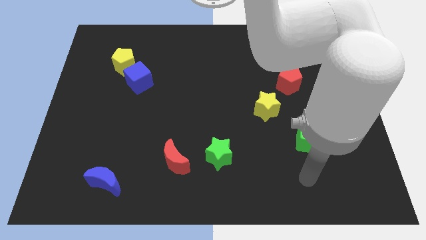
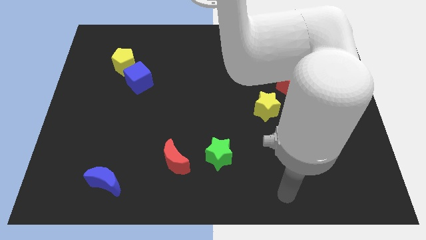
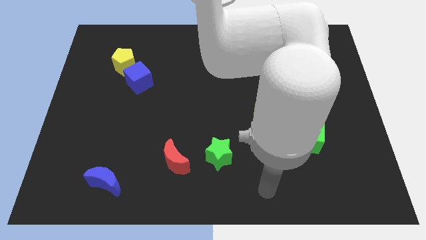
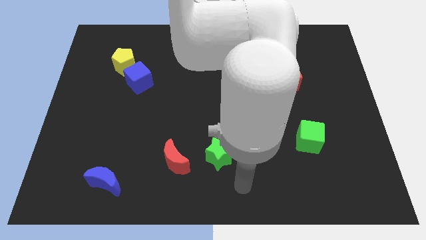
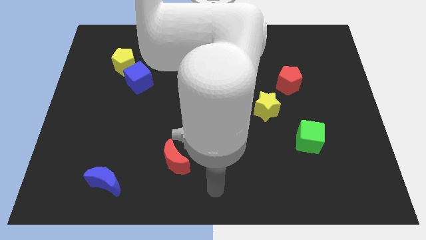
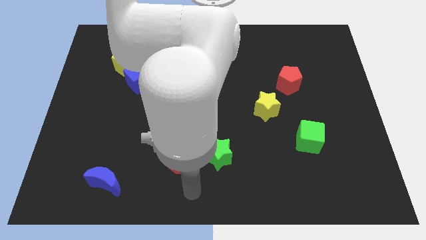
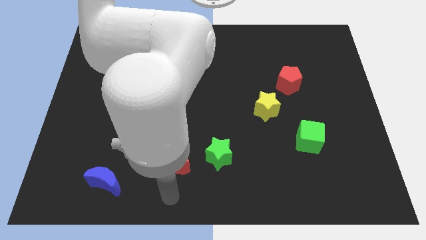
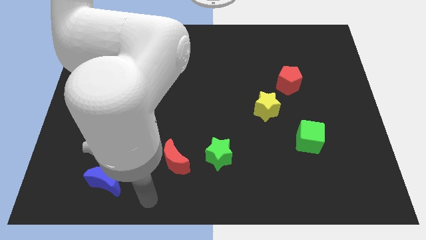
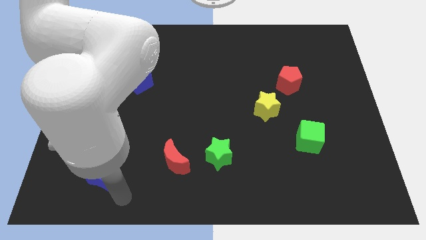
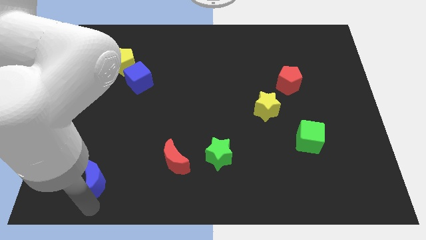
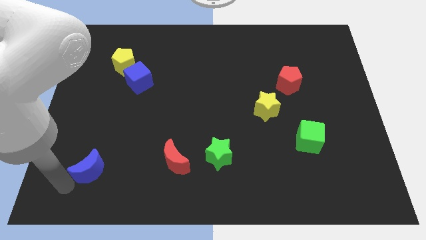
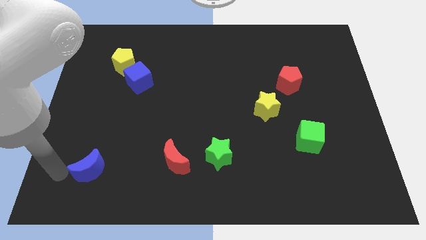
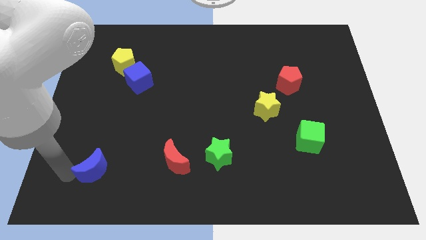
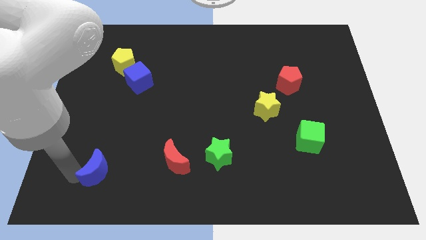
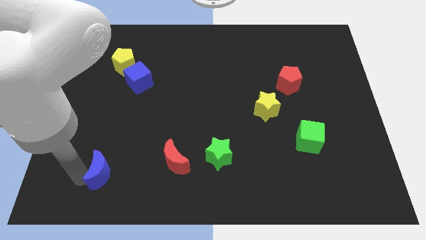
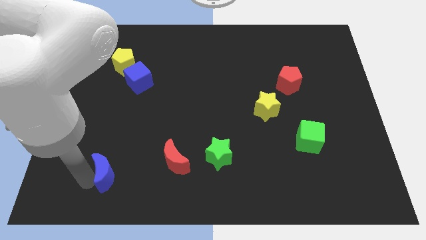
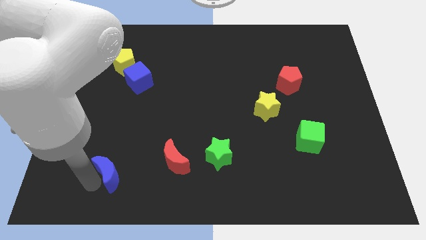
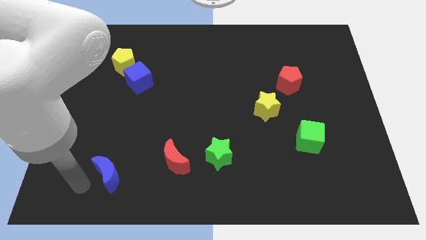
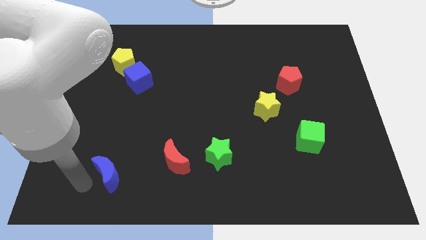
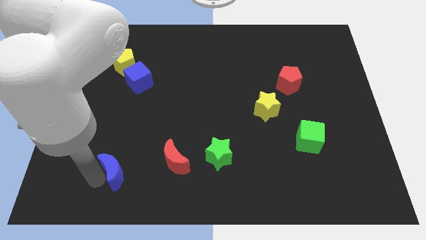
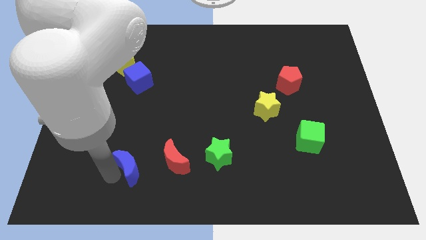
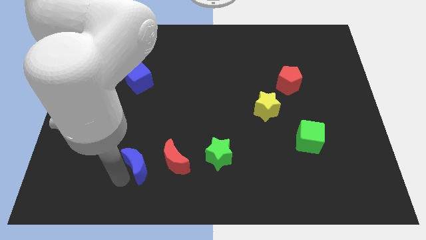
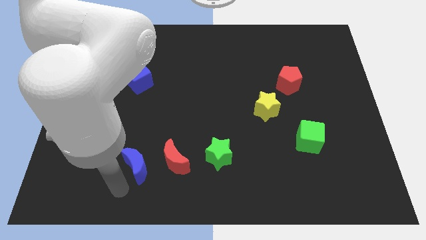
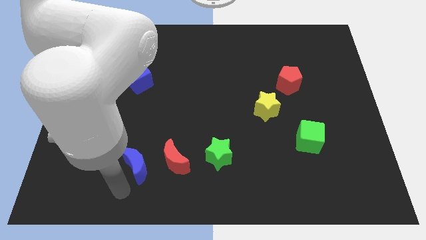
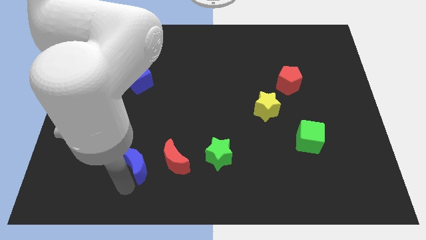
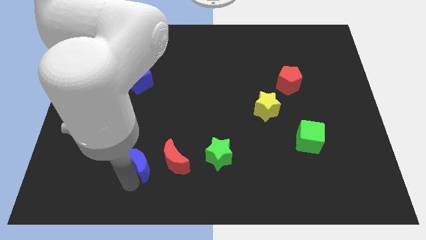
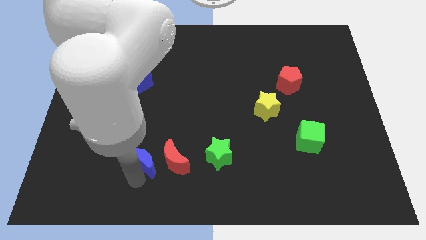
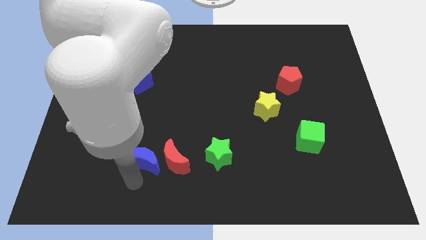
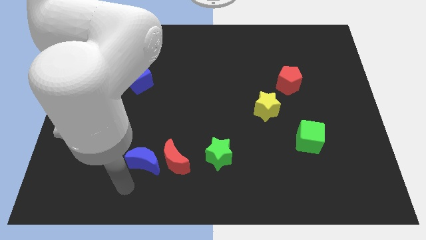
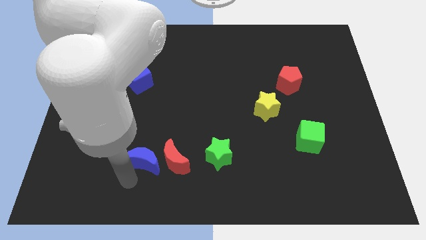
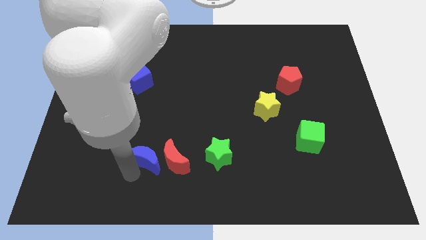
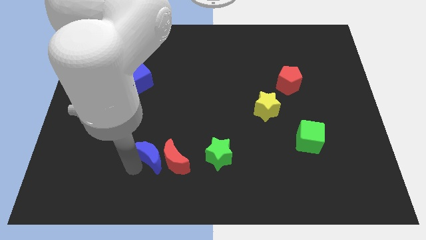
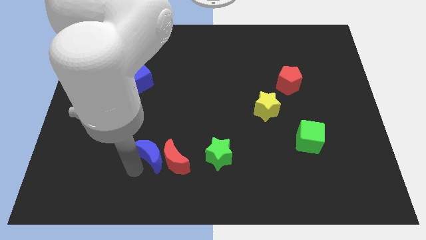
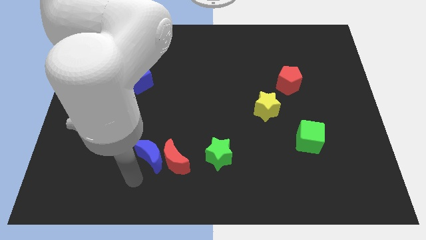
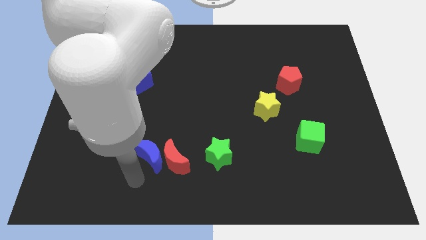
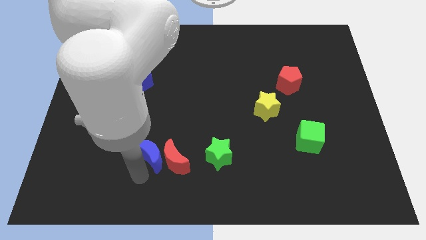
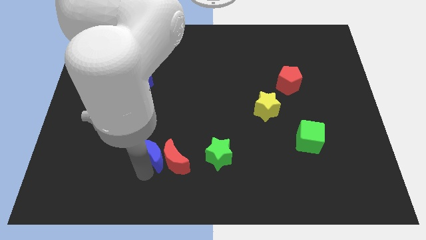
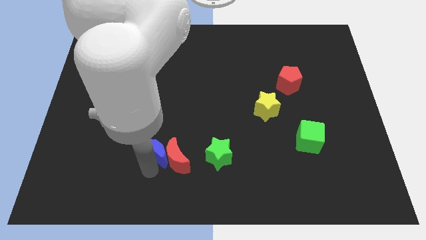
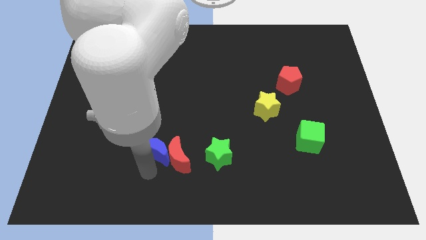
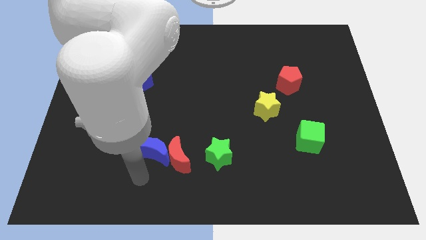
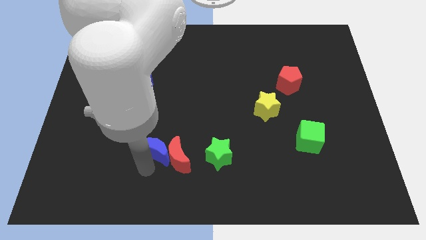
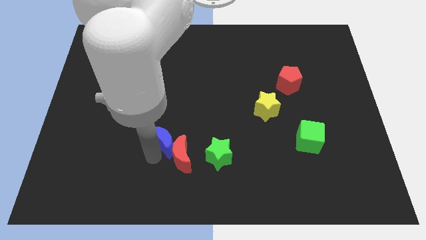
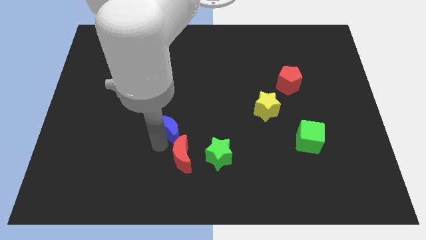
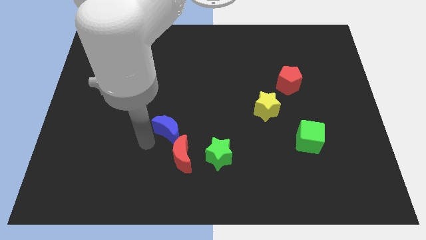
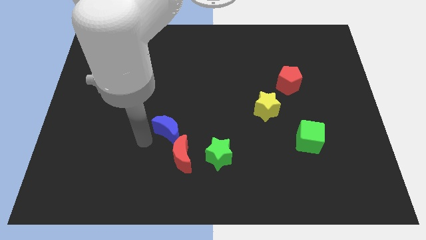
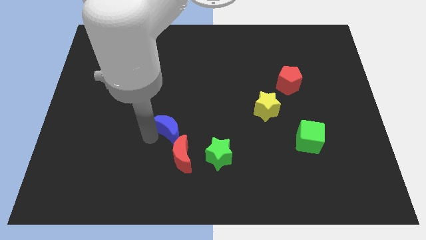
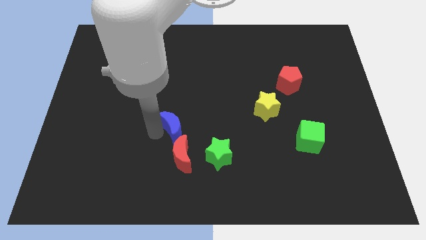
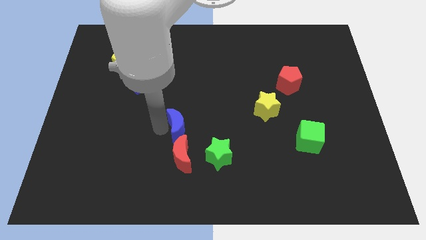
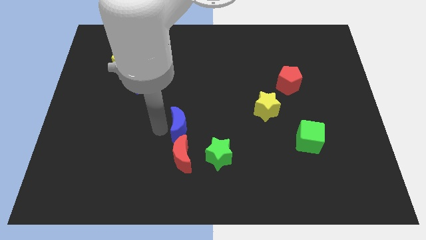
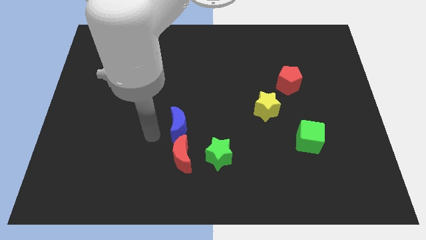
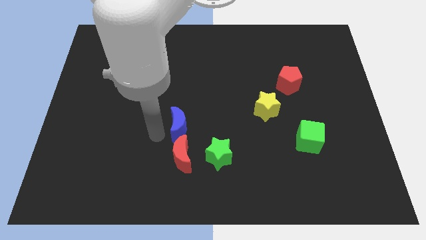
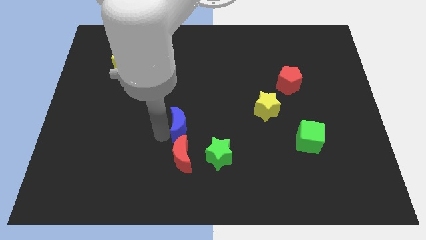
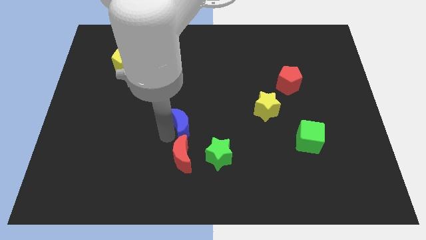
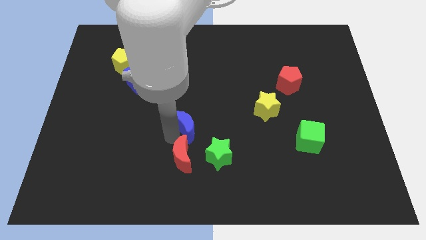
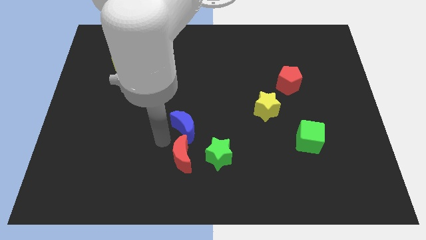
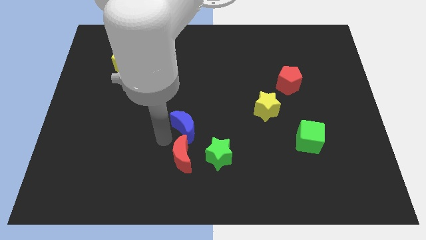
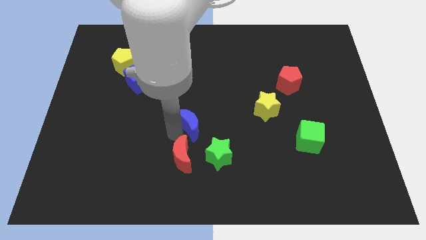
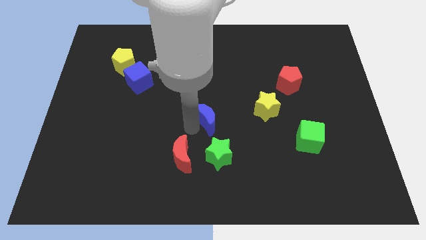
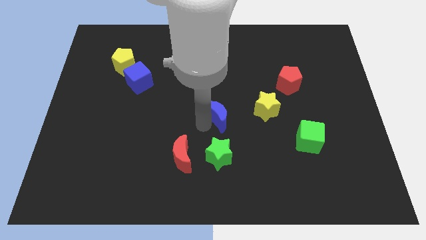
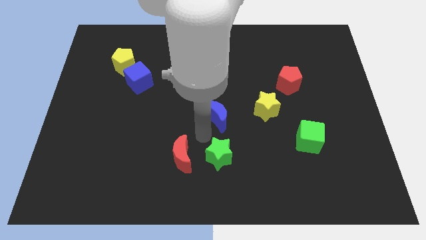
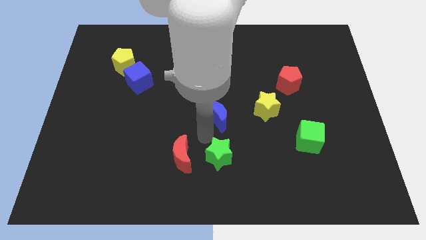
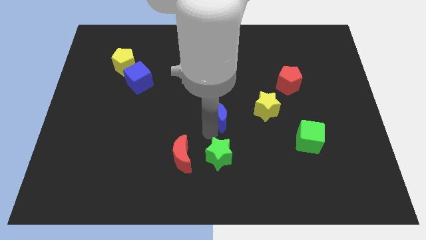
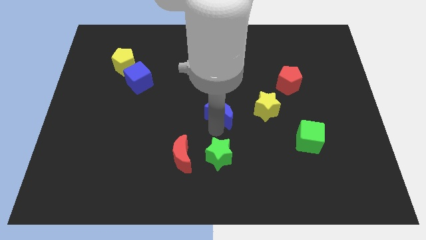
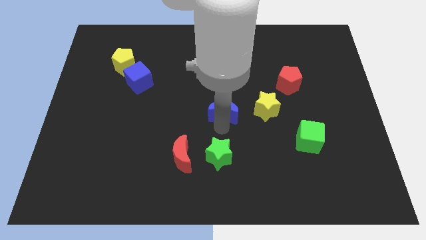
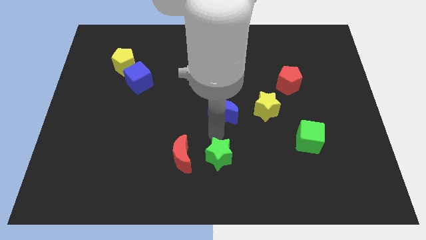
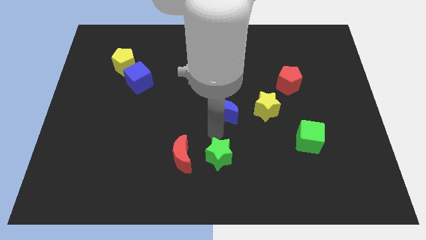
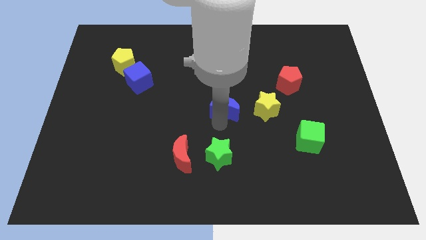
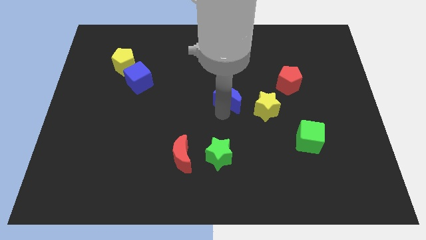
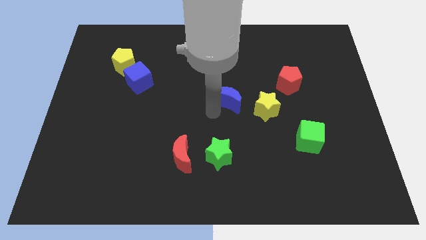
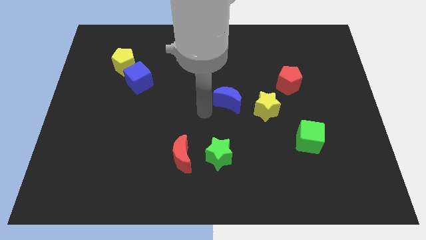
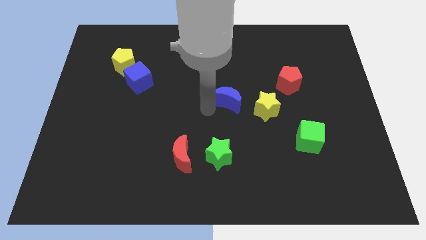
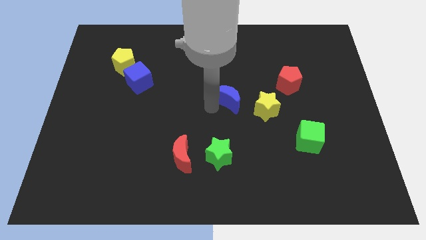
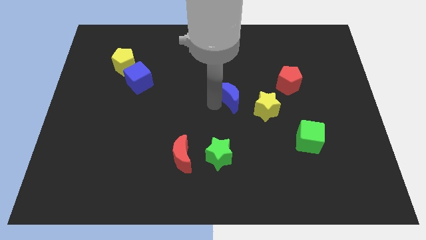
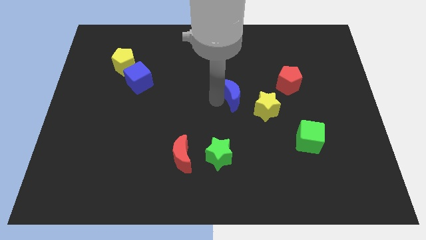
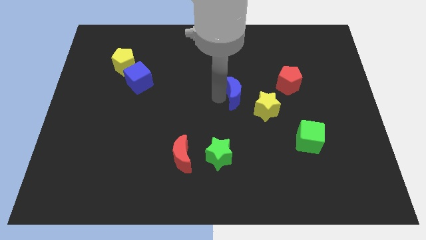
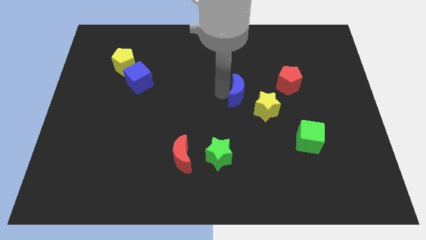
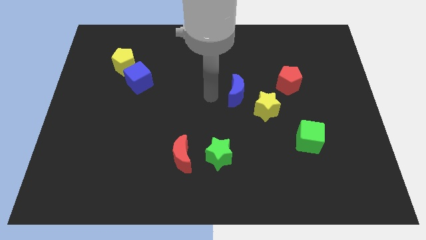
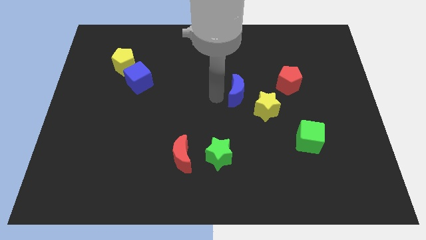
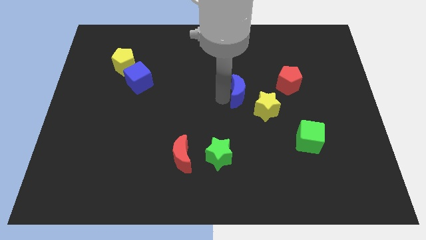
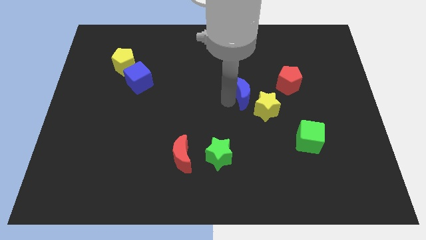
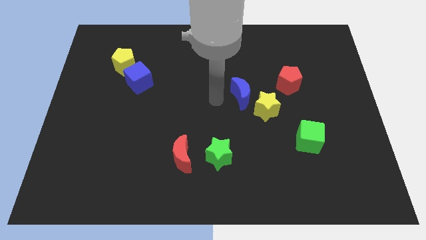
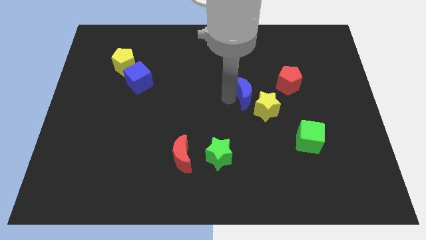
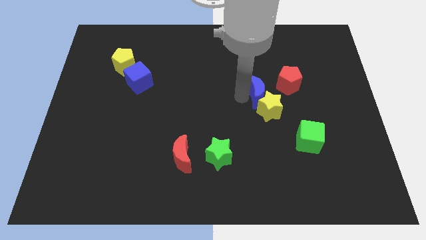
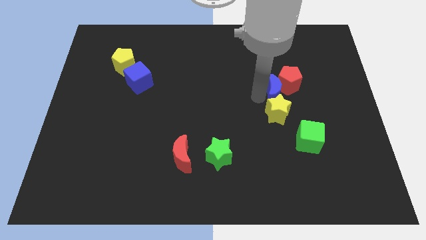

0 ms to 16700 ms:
move the blue moon towards the red pentagon
